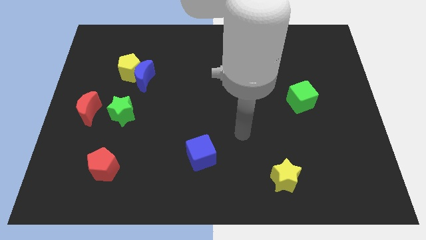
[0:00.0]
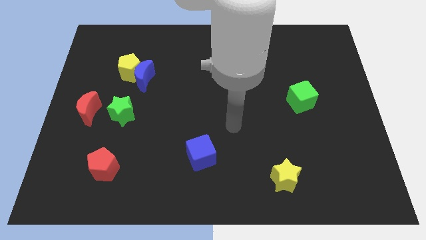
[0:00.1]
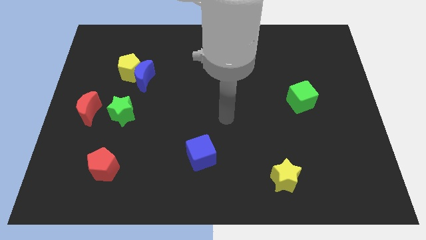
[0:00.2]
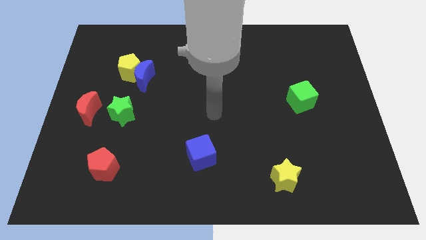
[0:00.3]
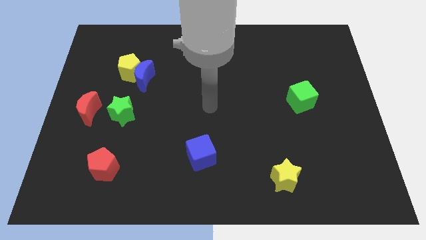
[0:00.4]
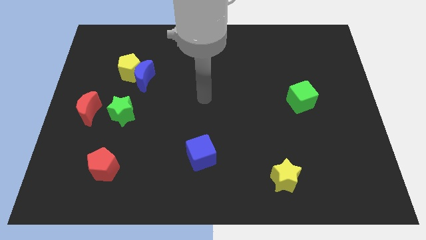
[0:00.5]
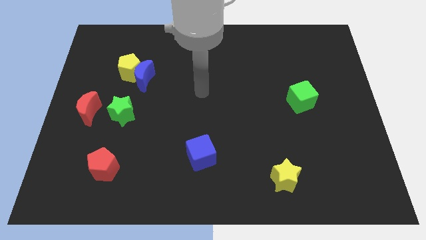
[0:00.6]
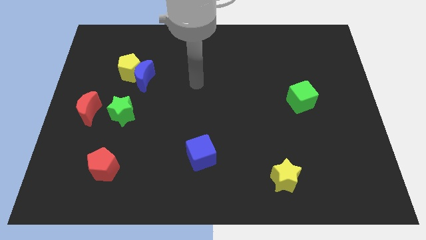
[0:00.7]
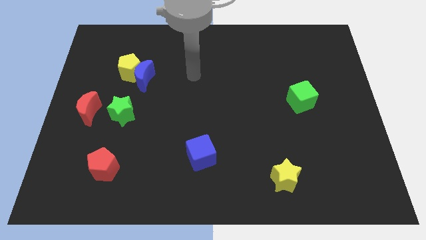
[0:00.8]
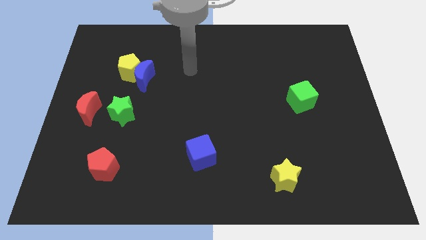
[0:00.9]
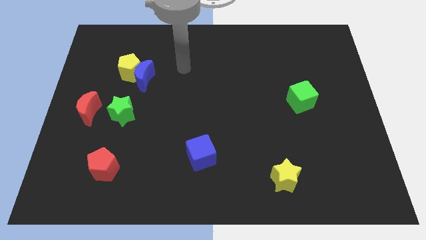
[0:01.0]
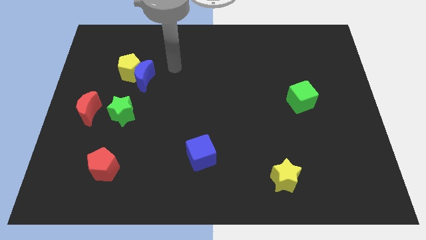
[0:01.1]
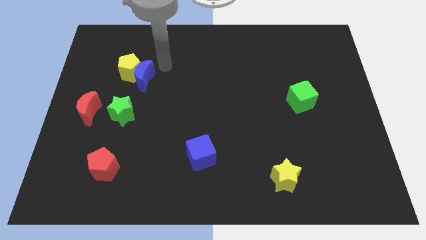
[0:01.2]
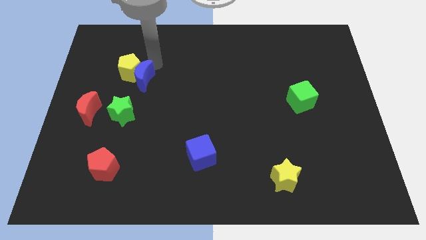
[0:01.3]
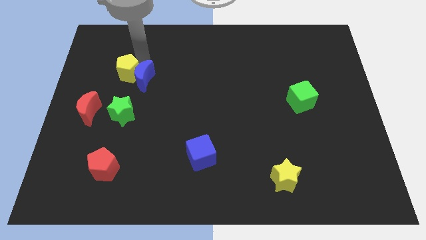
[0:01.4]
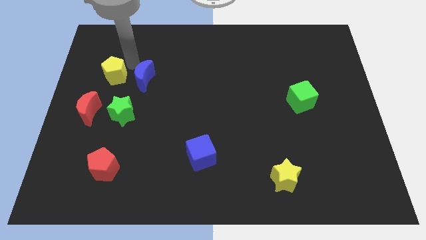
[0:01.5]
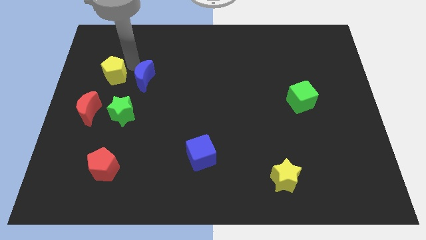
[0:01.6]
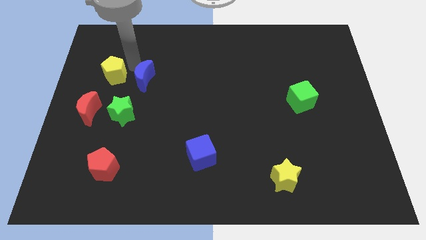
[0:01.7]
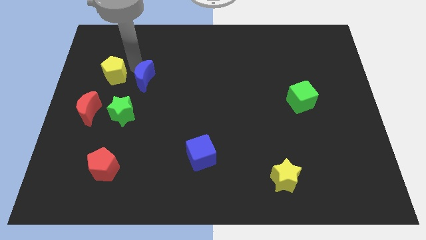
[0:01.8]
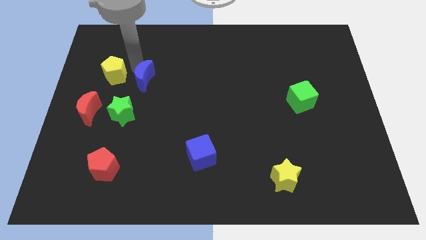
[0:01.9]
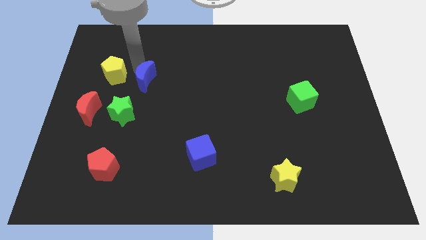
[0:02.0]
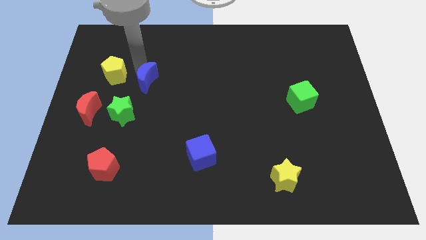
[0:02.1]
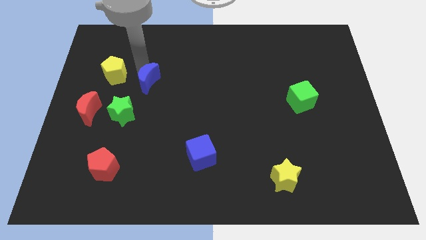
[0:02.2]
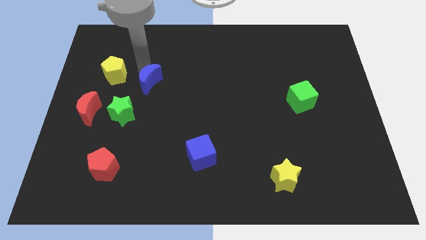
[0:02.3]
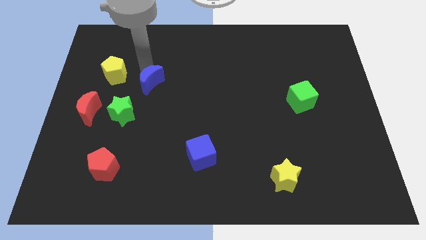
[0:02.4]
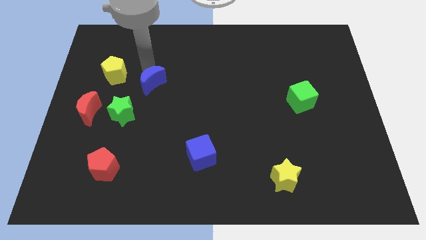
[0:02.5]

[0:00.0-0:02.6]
pull the blue moon apart from the yellow pentagon

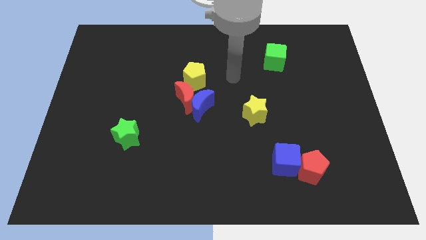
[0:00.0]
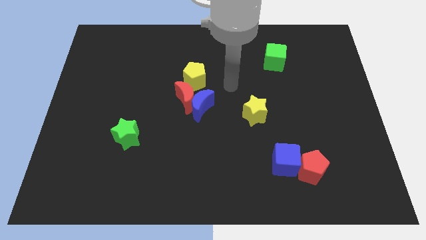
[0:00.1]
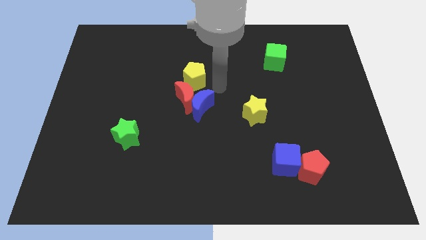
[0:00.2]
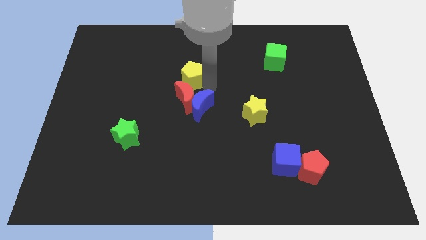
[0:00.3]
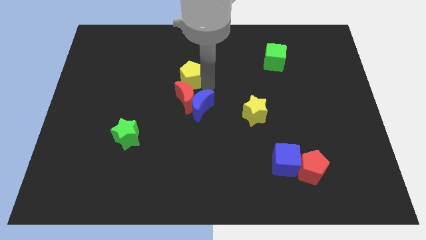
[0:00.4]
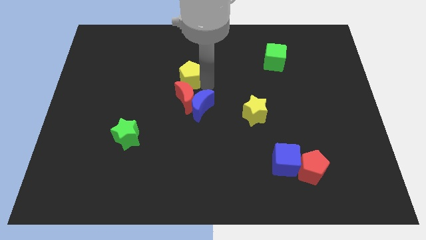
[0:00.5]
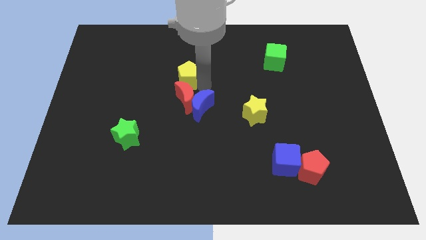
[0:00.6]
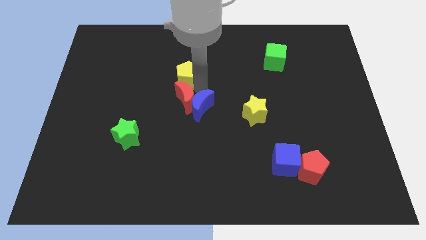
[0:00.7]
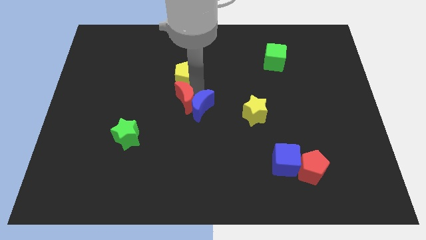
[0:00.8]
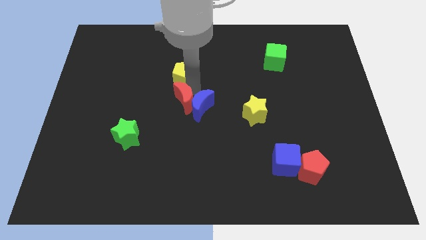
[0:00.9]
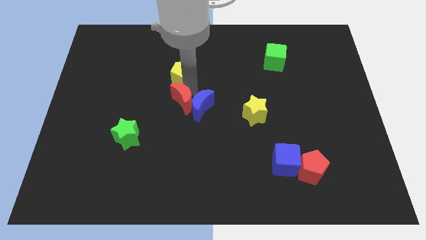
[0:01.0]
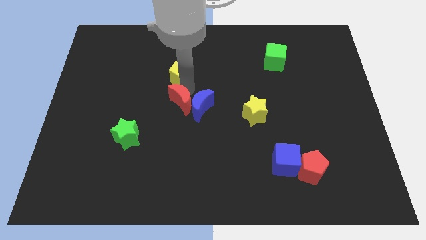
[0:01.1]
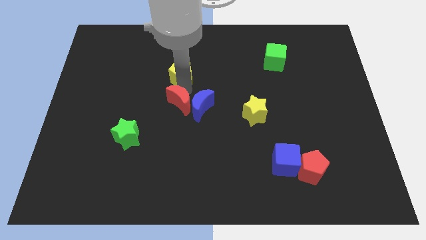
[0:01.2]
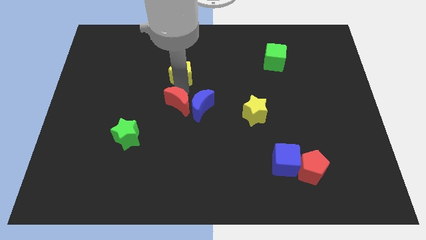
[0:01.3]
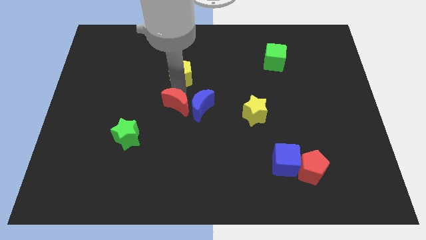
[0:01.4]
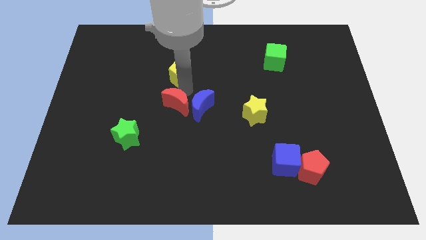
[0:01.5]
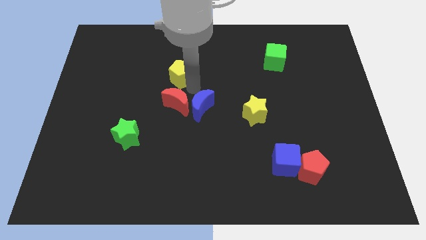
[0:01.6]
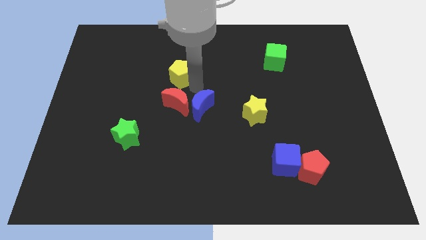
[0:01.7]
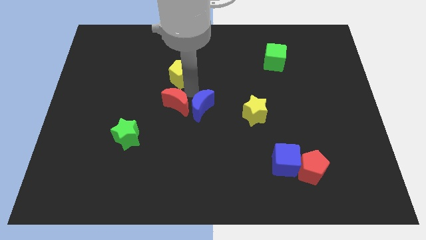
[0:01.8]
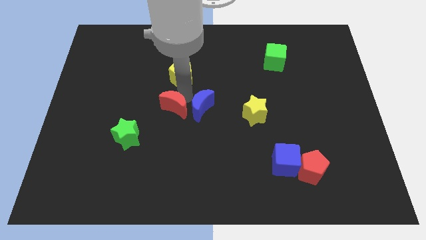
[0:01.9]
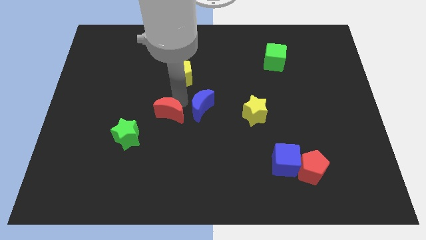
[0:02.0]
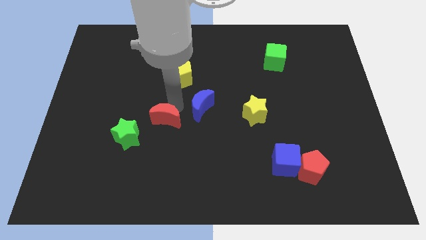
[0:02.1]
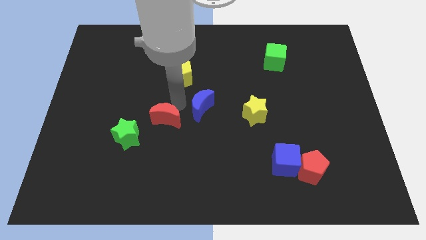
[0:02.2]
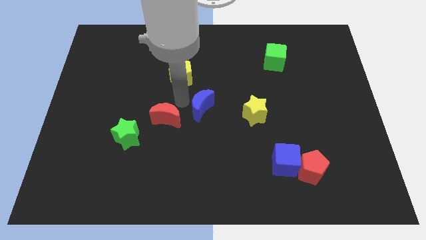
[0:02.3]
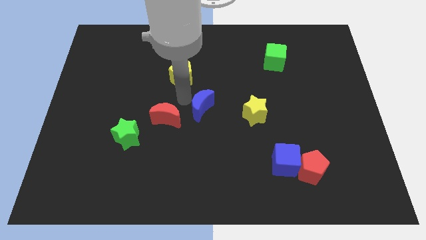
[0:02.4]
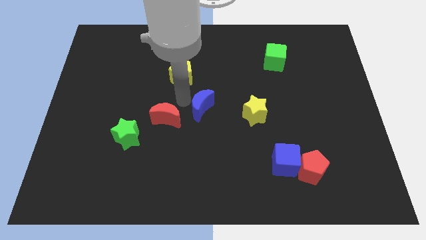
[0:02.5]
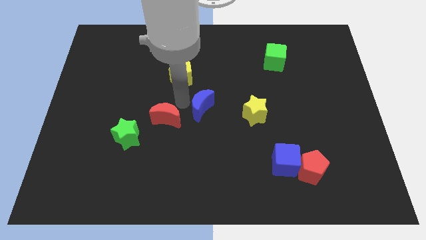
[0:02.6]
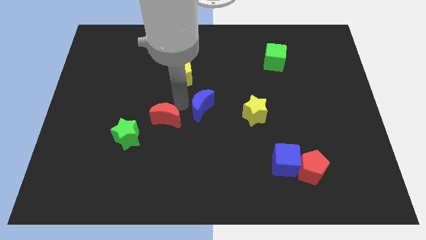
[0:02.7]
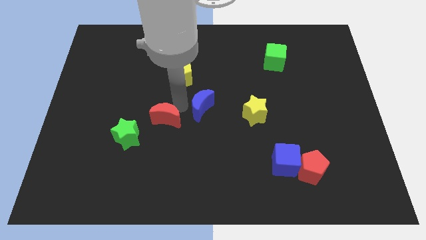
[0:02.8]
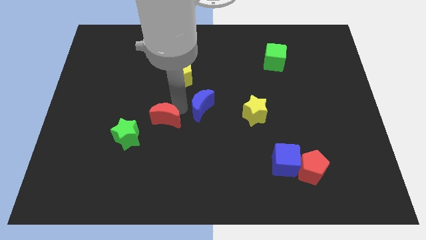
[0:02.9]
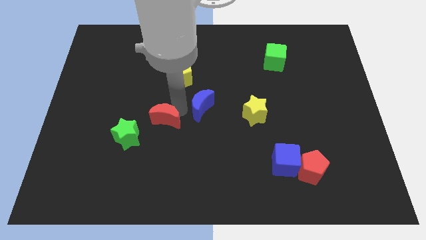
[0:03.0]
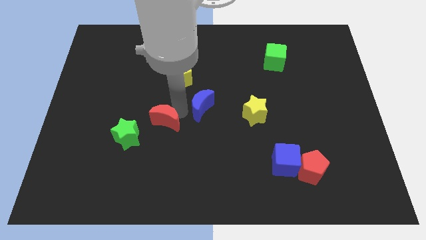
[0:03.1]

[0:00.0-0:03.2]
separate the red moon from the blue moon and yellow pentagon

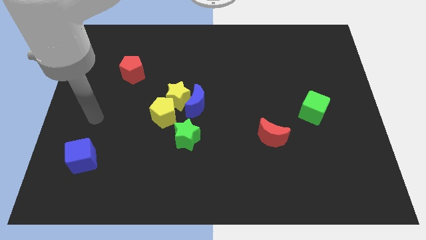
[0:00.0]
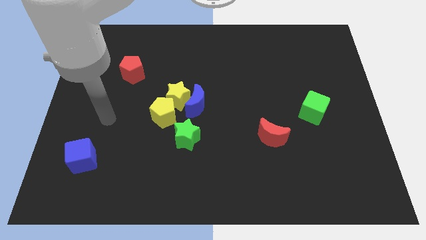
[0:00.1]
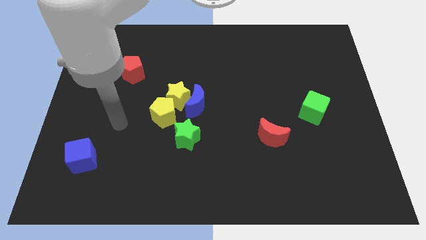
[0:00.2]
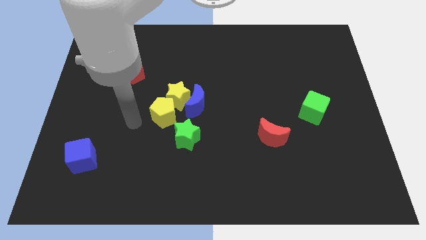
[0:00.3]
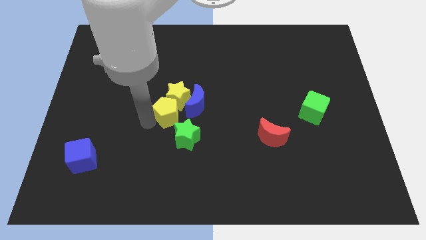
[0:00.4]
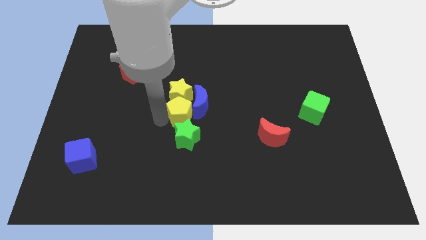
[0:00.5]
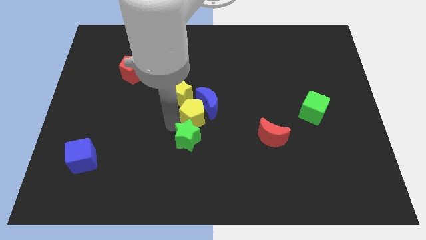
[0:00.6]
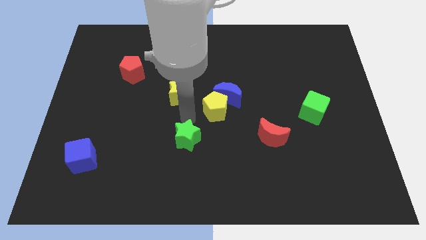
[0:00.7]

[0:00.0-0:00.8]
move the yellow star away from the blue moon and yellow pentagon

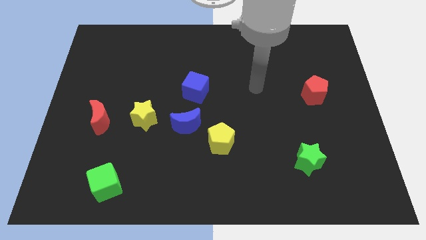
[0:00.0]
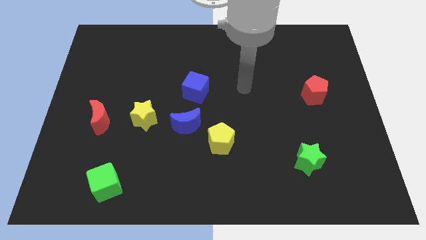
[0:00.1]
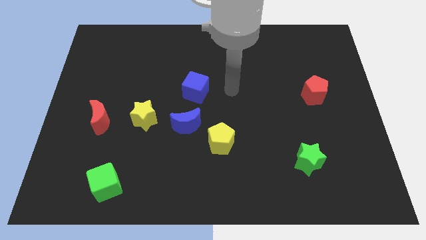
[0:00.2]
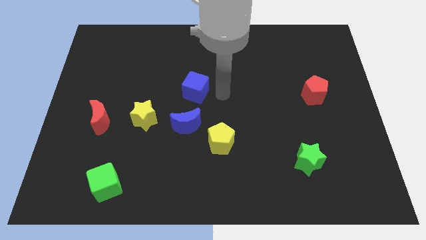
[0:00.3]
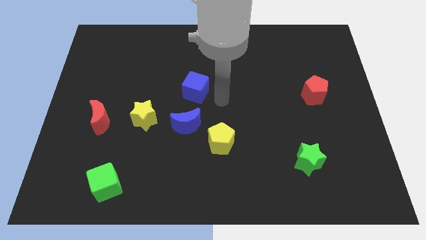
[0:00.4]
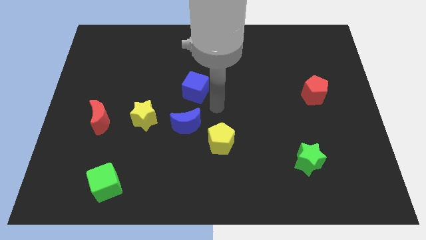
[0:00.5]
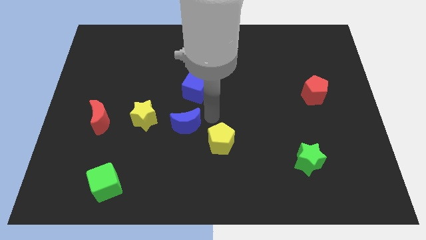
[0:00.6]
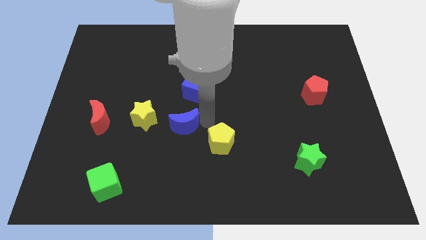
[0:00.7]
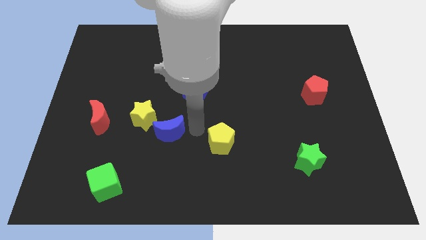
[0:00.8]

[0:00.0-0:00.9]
separate the yellow pentagon from the blue moon

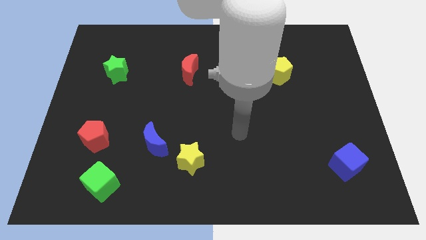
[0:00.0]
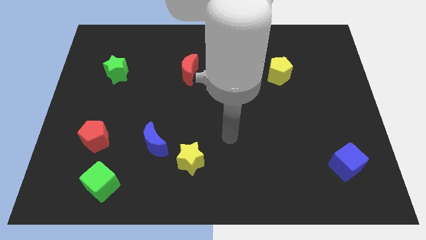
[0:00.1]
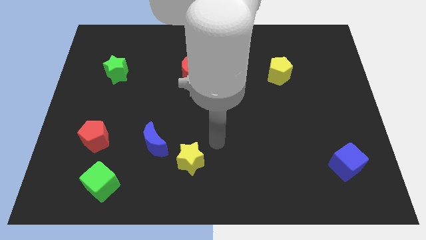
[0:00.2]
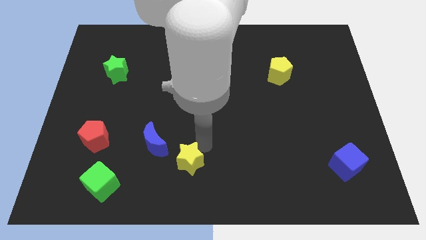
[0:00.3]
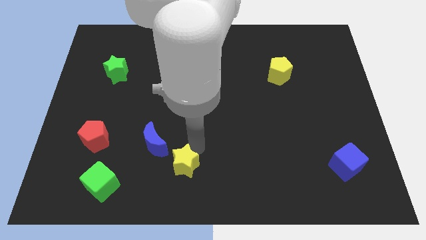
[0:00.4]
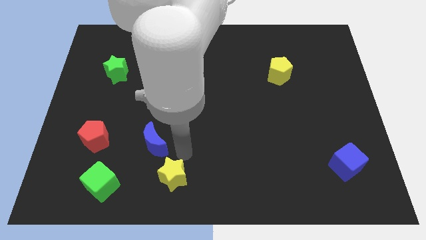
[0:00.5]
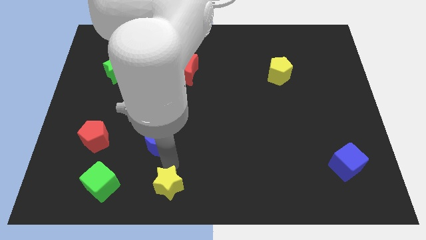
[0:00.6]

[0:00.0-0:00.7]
pull the blue moon apart from the yellow star

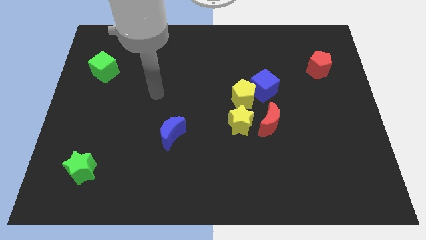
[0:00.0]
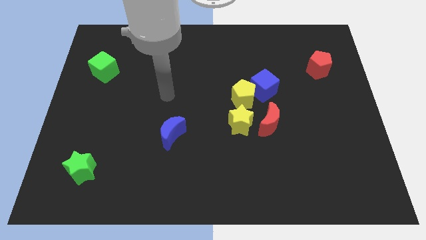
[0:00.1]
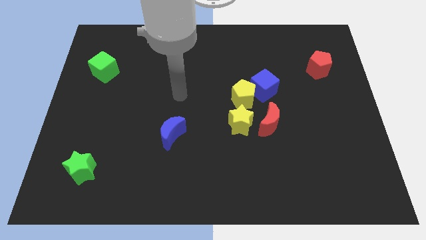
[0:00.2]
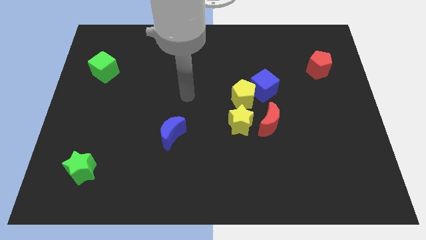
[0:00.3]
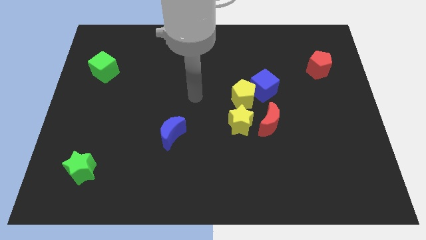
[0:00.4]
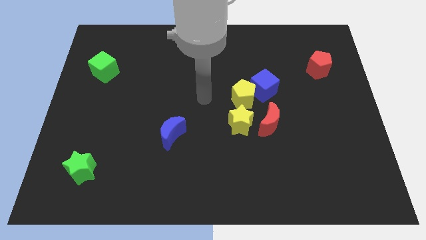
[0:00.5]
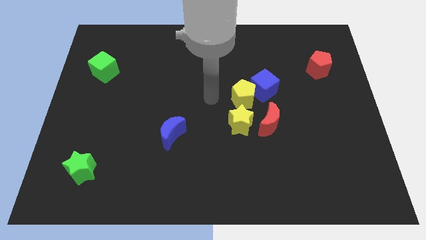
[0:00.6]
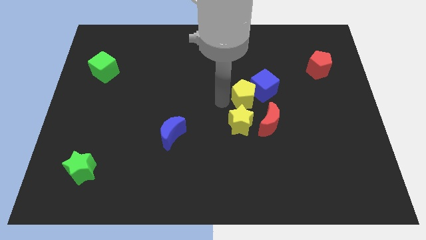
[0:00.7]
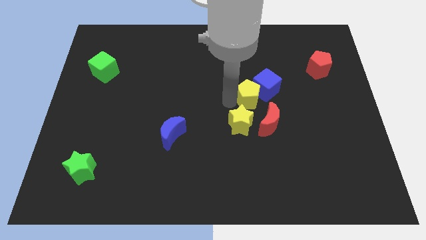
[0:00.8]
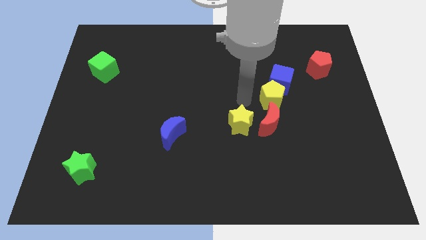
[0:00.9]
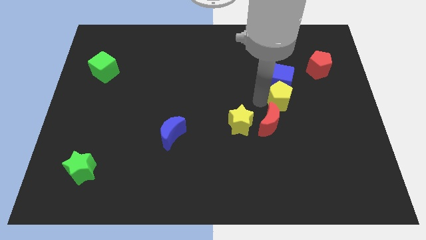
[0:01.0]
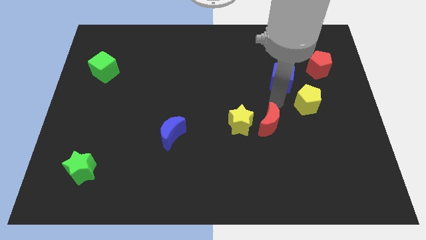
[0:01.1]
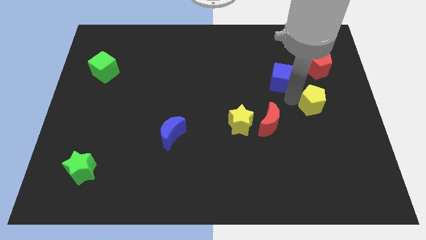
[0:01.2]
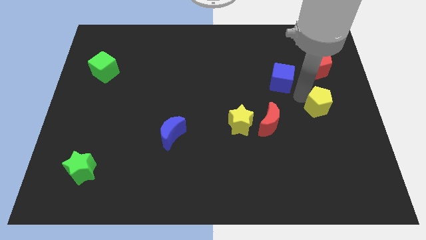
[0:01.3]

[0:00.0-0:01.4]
move the blue cube away from the yellow pentagon
